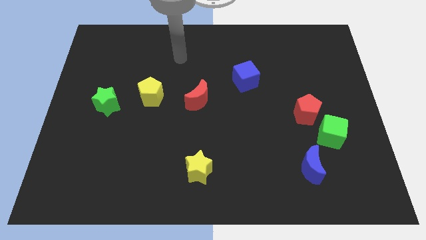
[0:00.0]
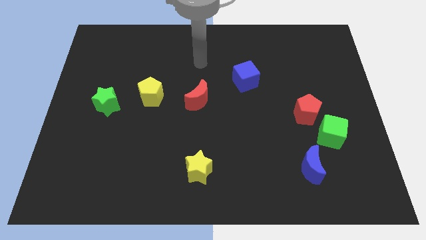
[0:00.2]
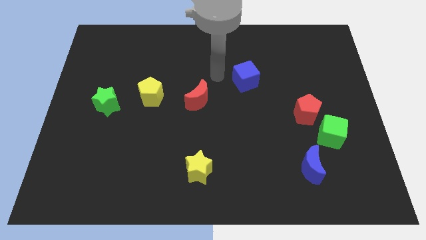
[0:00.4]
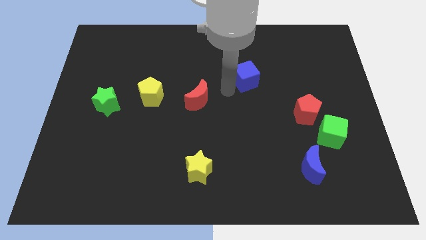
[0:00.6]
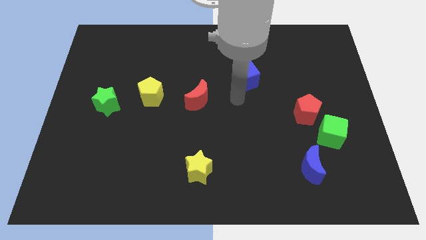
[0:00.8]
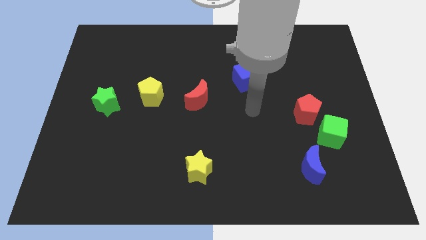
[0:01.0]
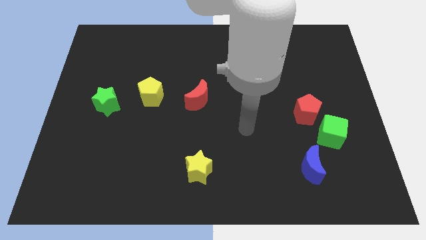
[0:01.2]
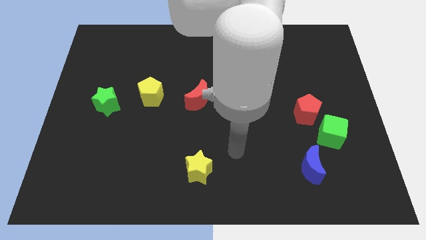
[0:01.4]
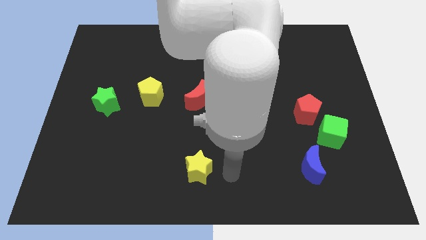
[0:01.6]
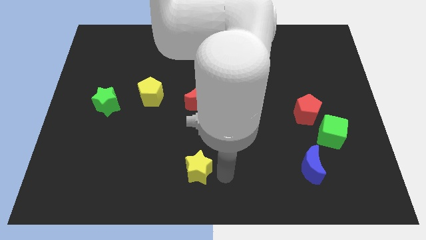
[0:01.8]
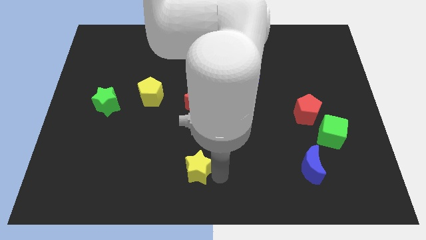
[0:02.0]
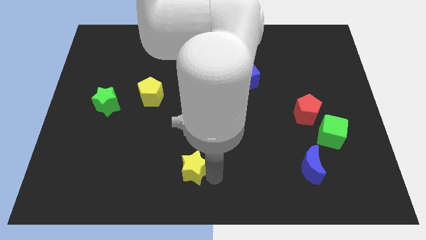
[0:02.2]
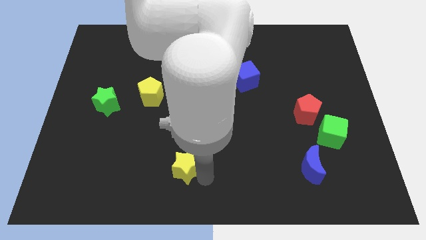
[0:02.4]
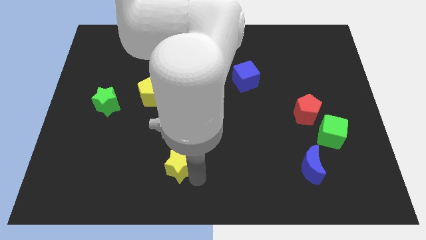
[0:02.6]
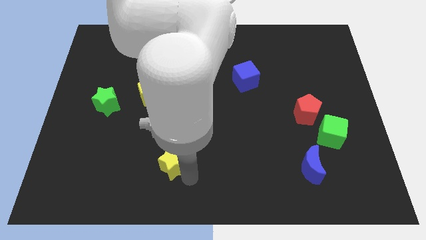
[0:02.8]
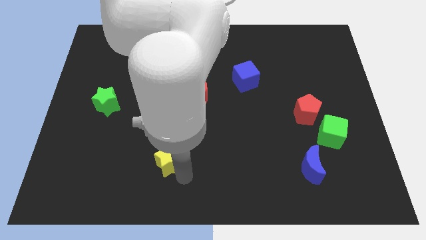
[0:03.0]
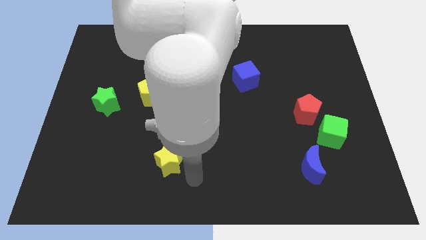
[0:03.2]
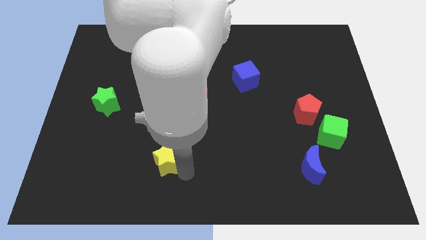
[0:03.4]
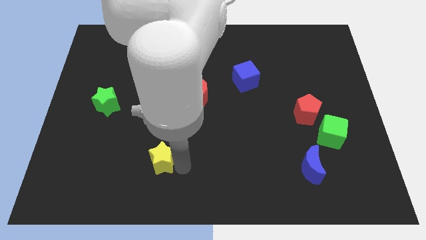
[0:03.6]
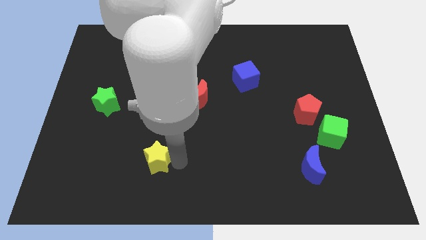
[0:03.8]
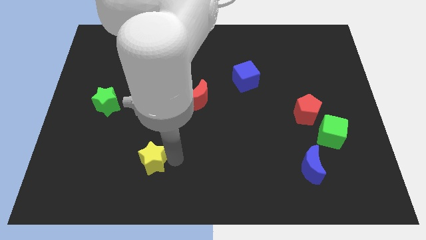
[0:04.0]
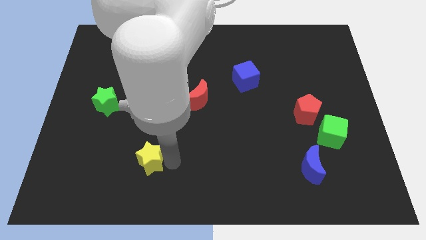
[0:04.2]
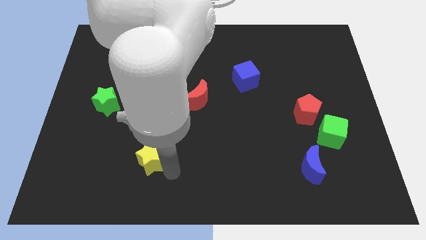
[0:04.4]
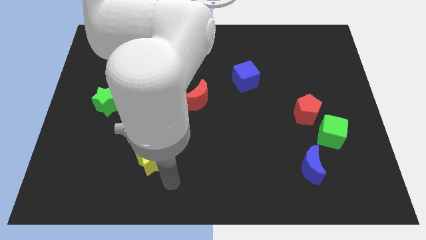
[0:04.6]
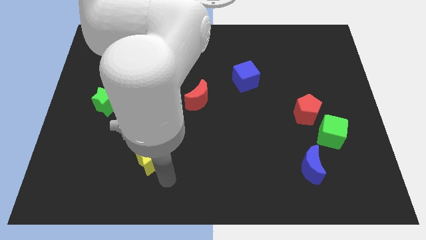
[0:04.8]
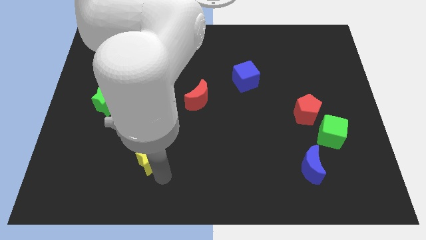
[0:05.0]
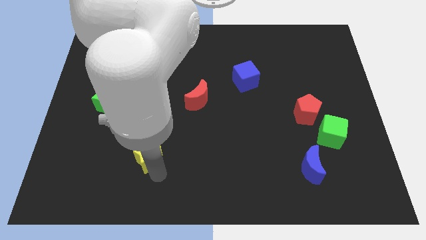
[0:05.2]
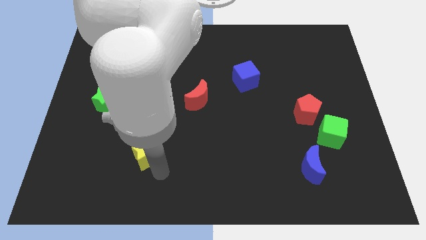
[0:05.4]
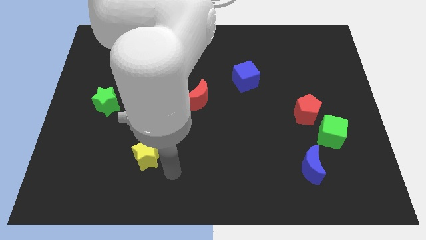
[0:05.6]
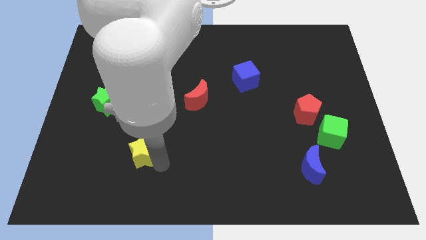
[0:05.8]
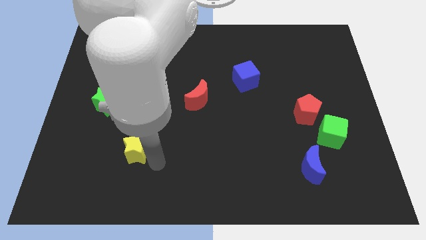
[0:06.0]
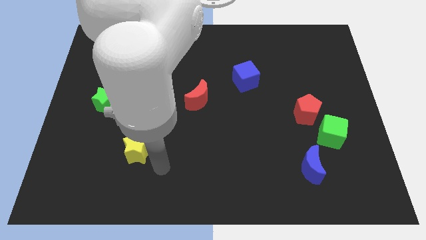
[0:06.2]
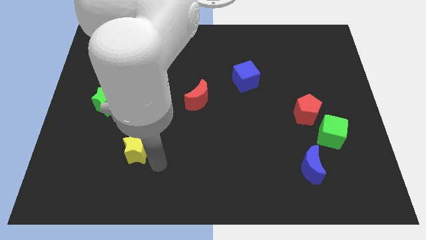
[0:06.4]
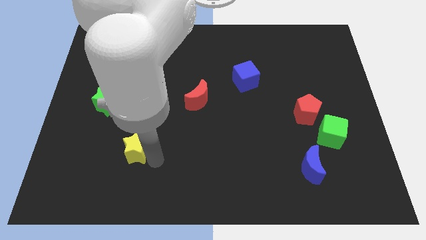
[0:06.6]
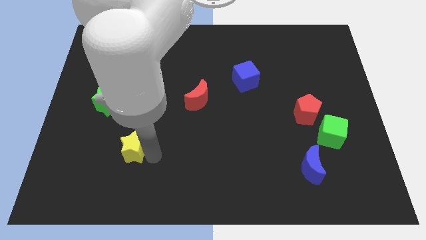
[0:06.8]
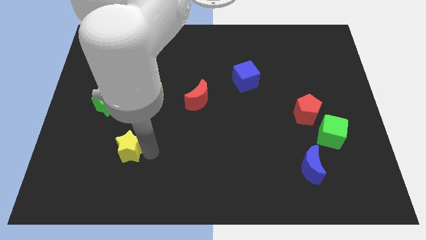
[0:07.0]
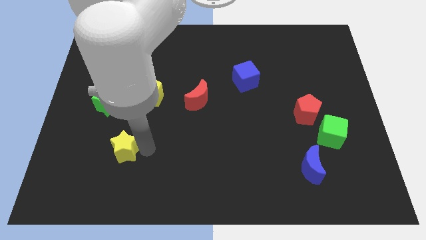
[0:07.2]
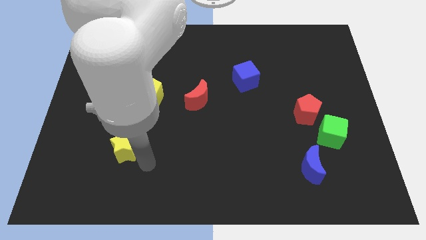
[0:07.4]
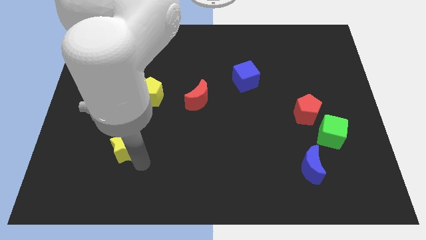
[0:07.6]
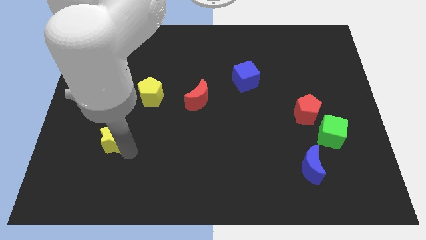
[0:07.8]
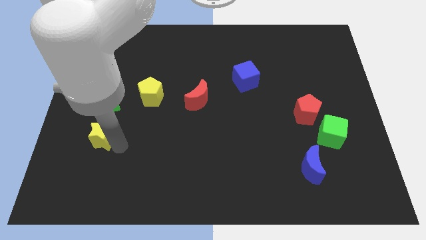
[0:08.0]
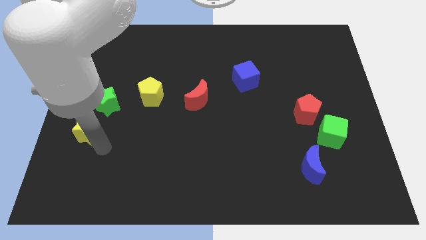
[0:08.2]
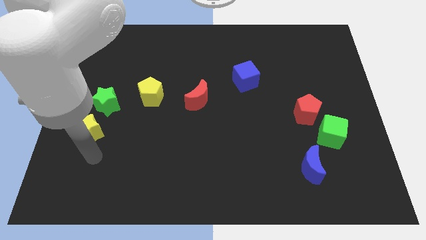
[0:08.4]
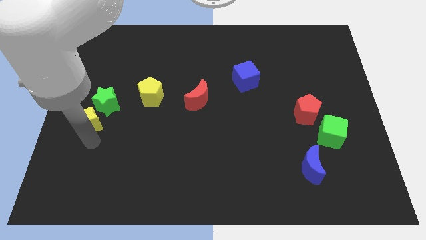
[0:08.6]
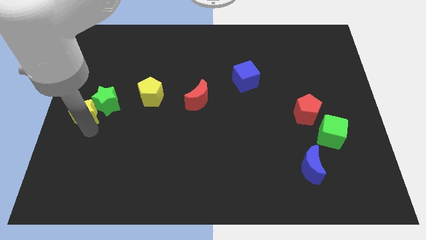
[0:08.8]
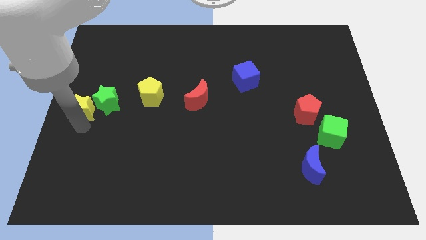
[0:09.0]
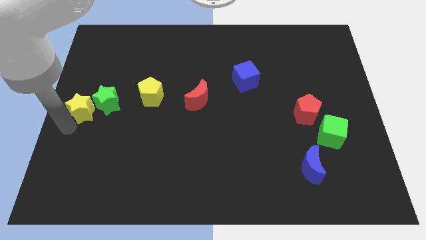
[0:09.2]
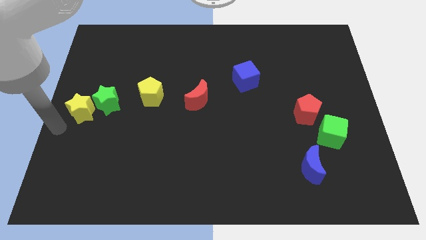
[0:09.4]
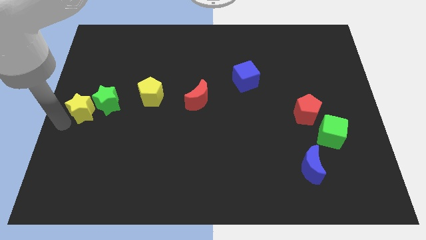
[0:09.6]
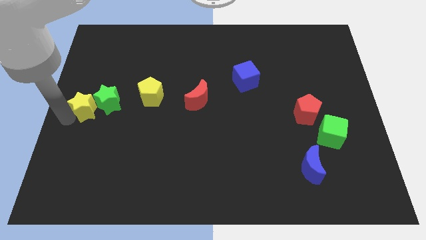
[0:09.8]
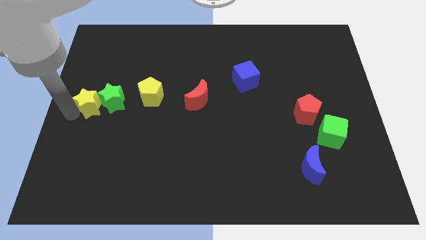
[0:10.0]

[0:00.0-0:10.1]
move the yellow star just left of the yellow pentagon

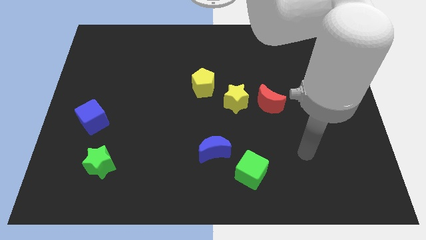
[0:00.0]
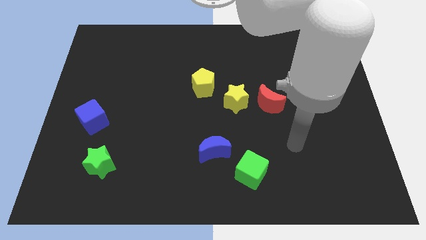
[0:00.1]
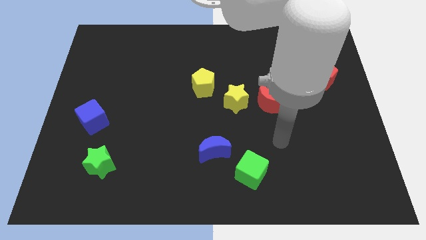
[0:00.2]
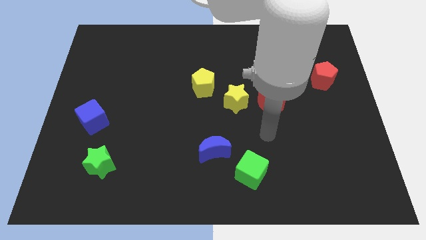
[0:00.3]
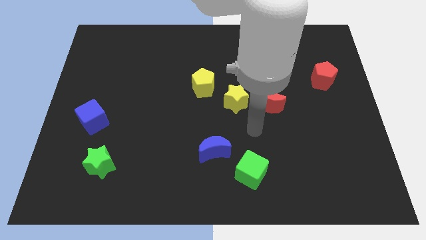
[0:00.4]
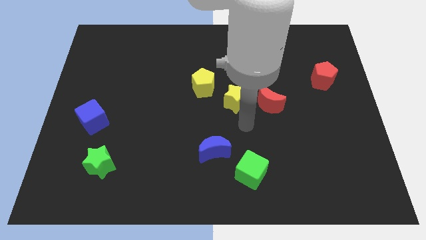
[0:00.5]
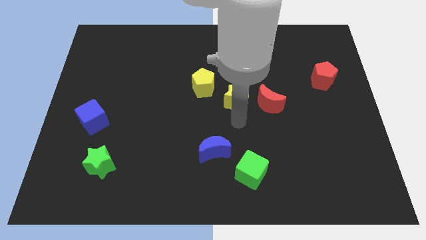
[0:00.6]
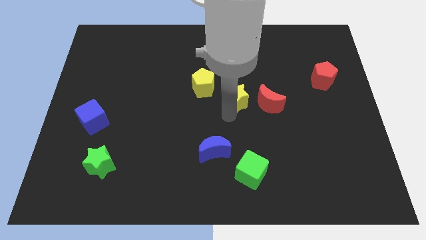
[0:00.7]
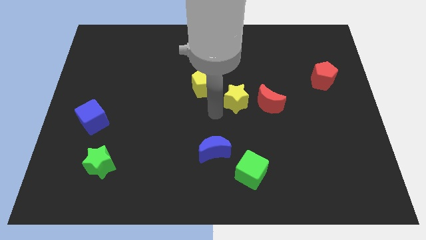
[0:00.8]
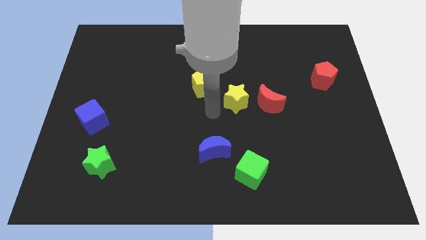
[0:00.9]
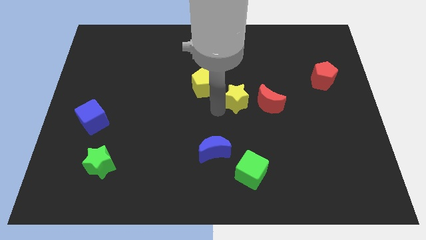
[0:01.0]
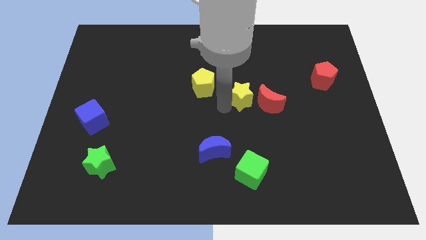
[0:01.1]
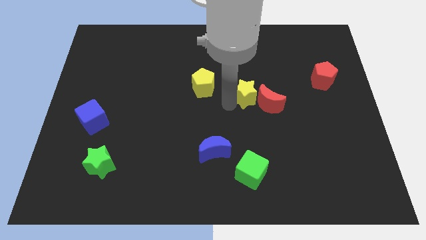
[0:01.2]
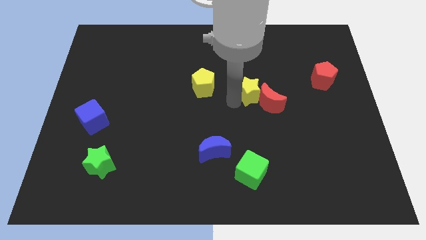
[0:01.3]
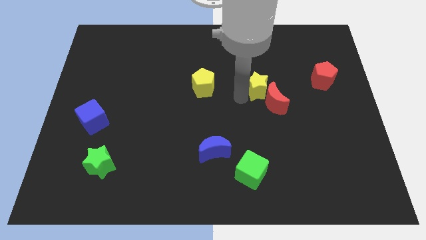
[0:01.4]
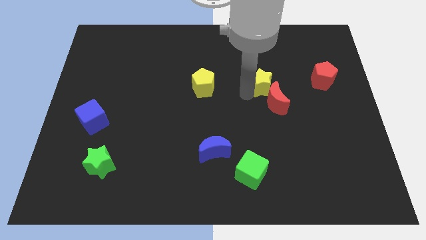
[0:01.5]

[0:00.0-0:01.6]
move the yellow star left of the red pentagon
